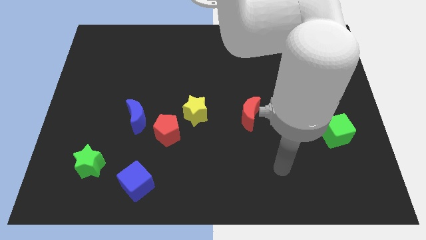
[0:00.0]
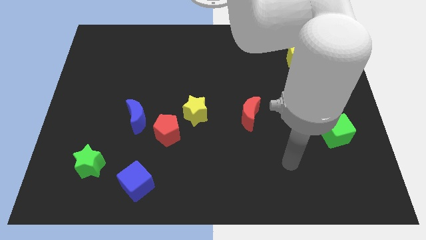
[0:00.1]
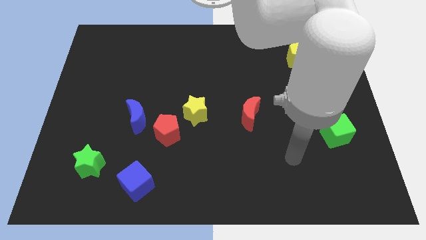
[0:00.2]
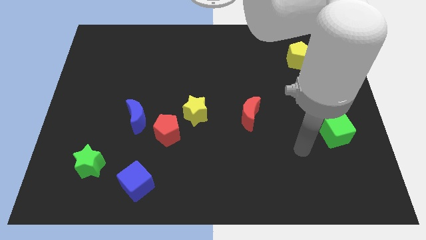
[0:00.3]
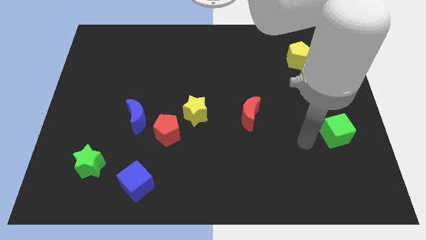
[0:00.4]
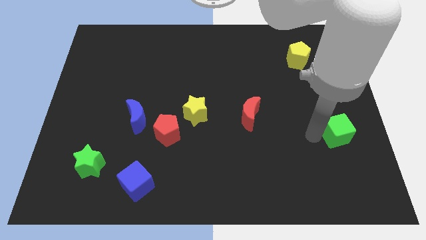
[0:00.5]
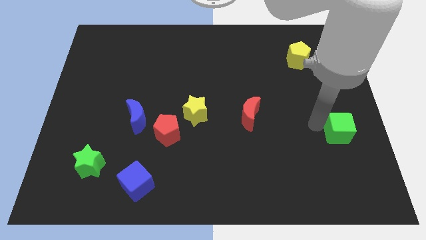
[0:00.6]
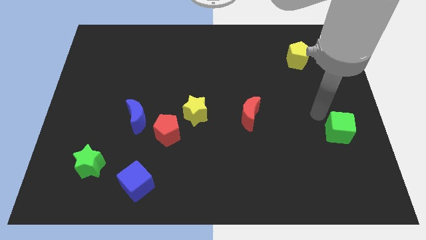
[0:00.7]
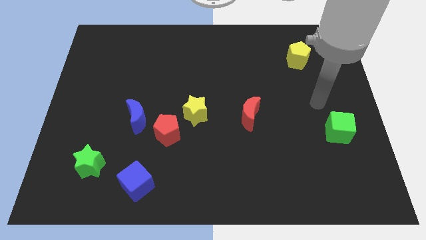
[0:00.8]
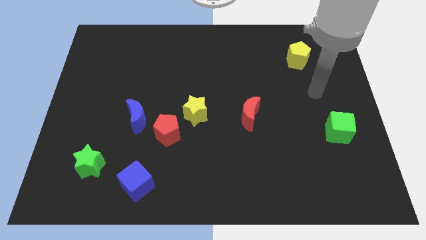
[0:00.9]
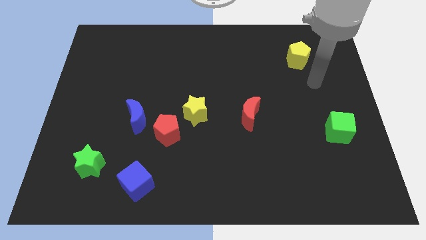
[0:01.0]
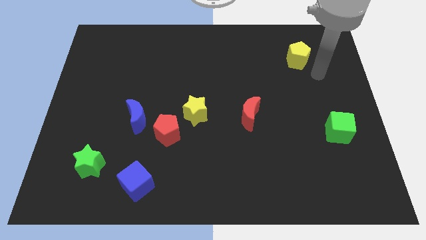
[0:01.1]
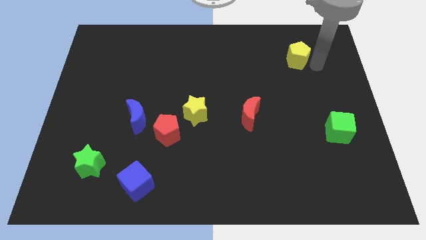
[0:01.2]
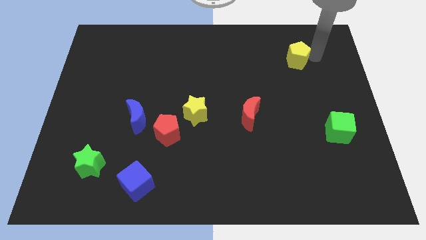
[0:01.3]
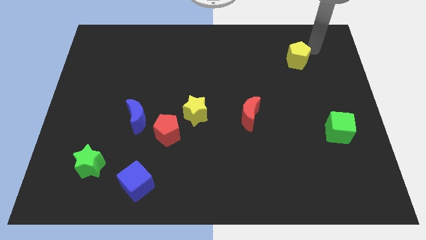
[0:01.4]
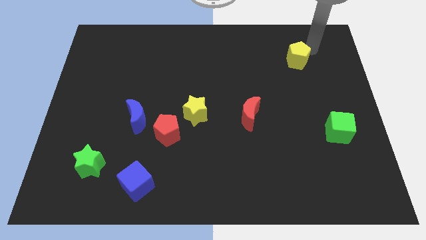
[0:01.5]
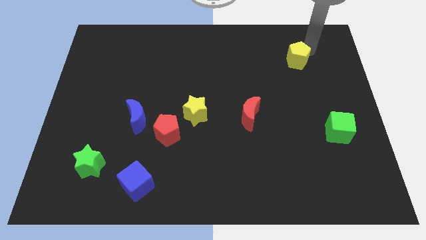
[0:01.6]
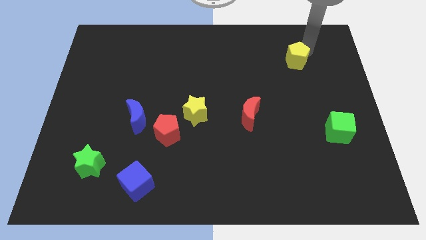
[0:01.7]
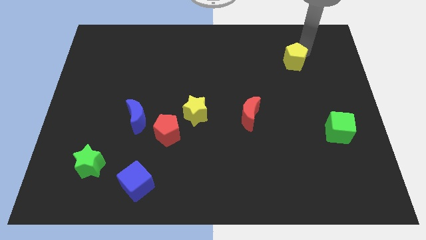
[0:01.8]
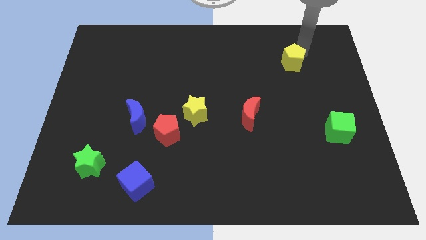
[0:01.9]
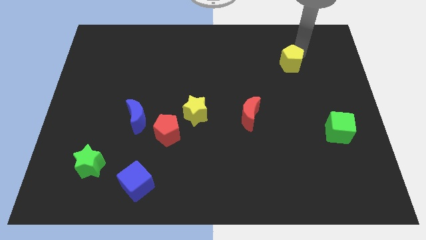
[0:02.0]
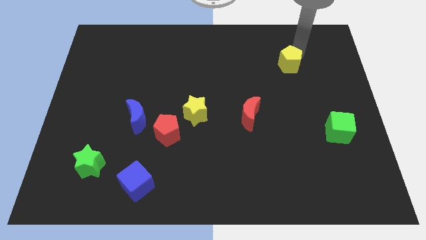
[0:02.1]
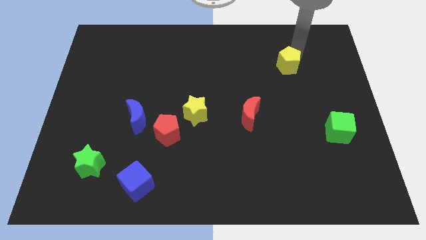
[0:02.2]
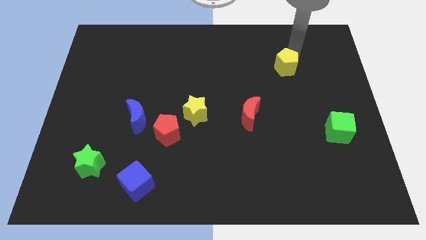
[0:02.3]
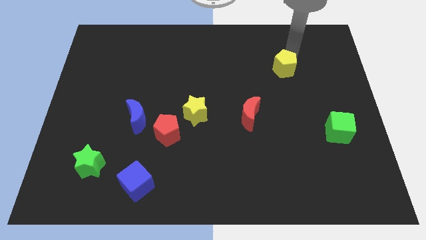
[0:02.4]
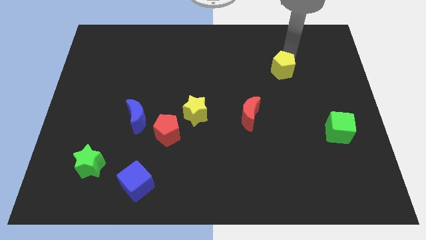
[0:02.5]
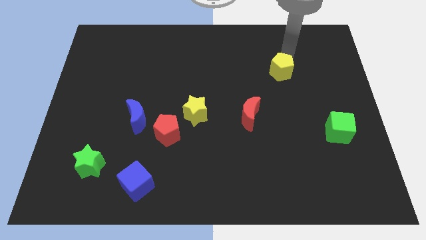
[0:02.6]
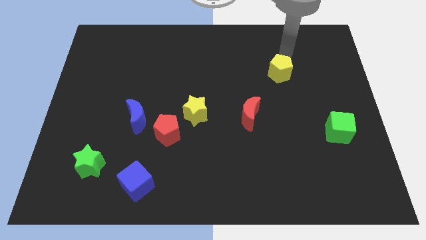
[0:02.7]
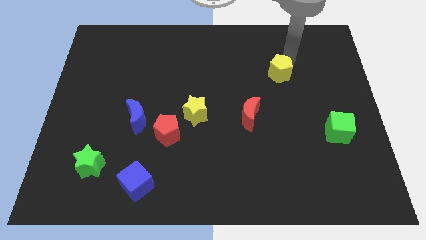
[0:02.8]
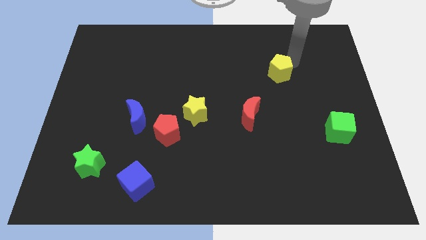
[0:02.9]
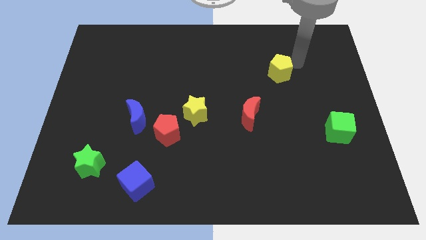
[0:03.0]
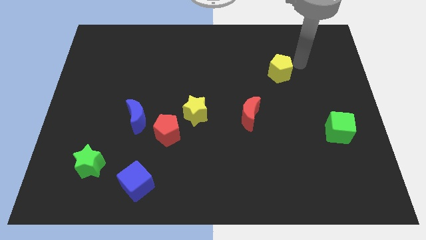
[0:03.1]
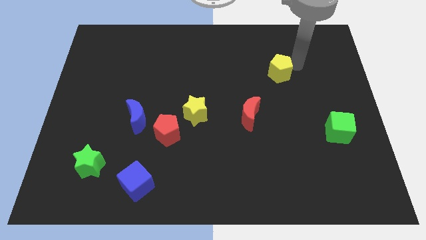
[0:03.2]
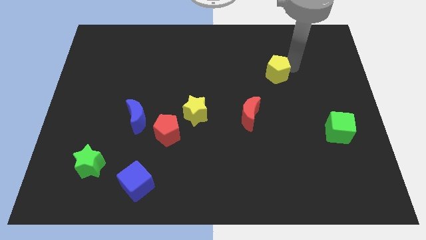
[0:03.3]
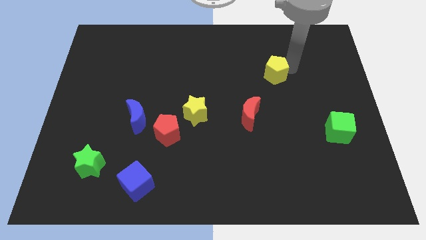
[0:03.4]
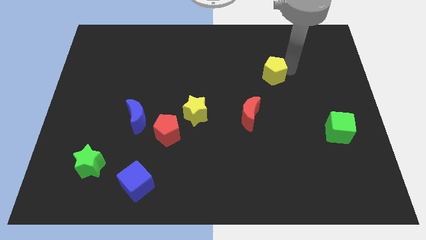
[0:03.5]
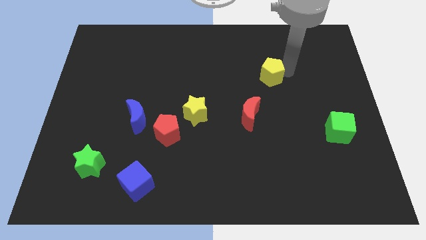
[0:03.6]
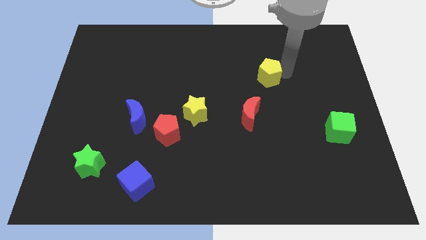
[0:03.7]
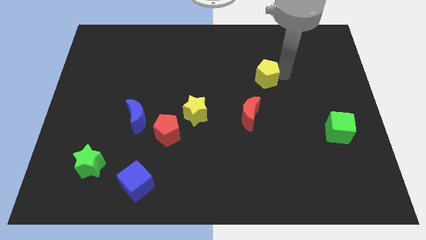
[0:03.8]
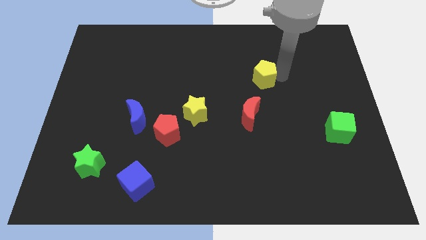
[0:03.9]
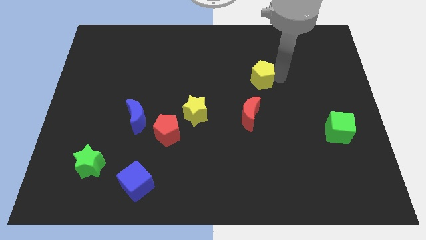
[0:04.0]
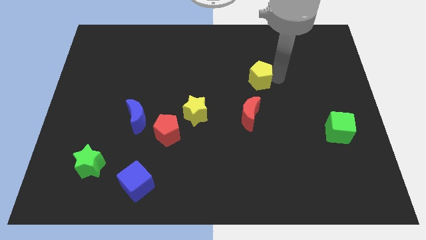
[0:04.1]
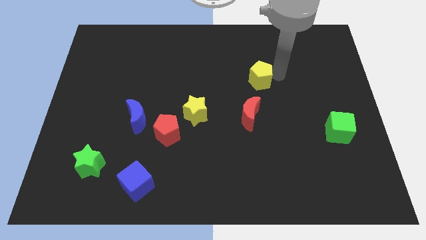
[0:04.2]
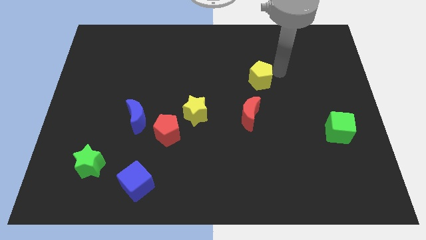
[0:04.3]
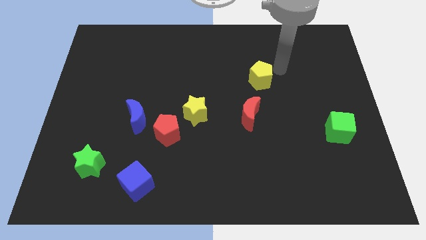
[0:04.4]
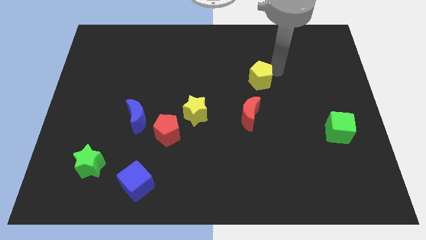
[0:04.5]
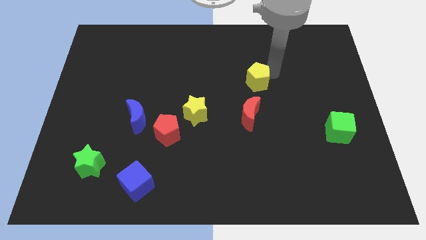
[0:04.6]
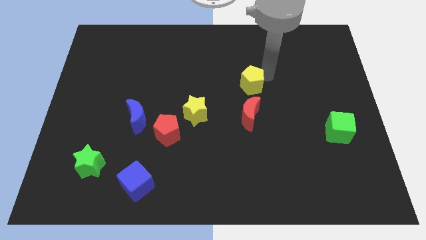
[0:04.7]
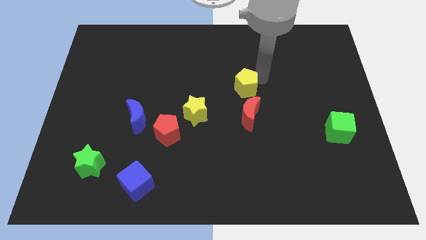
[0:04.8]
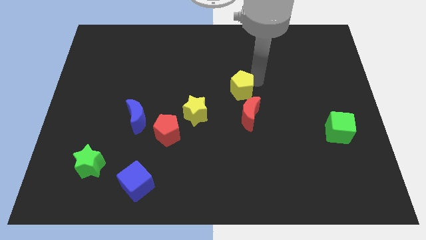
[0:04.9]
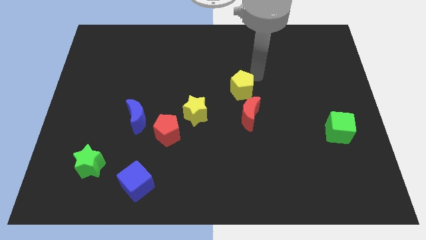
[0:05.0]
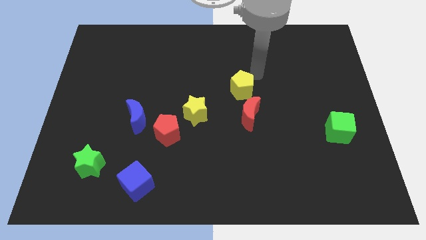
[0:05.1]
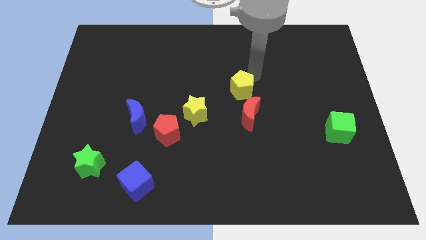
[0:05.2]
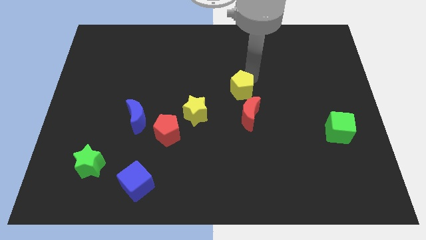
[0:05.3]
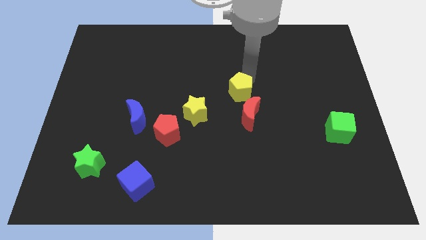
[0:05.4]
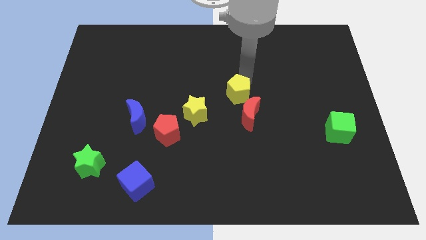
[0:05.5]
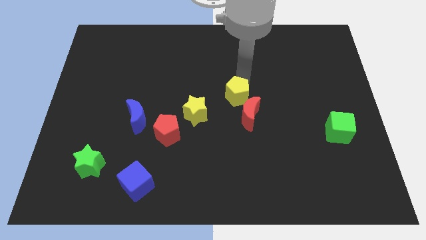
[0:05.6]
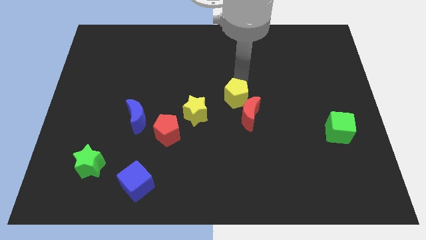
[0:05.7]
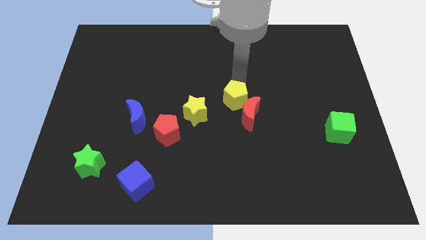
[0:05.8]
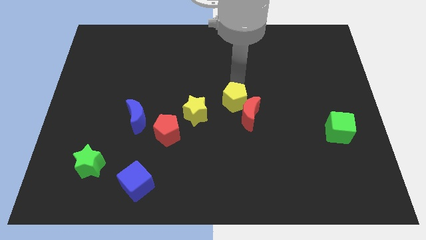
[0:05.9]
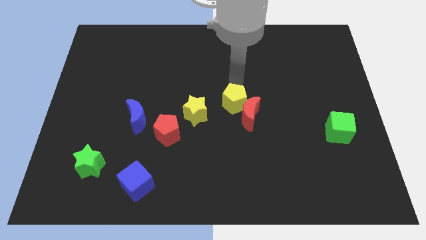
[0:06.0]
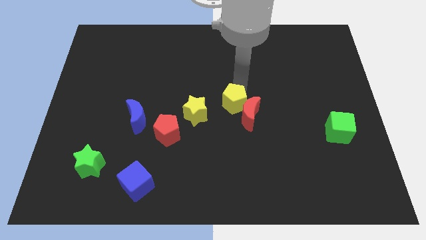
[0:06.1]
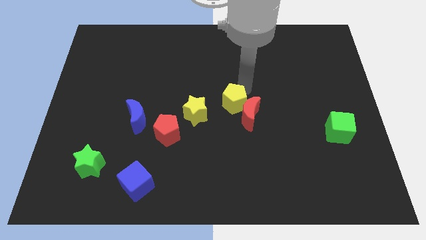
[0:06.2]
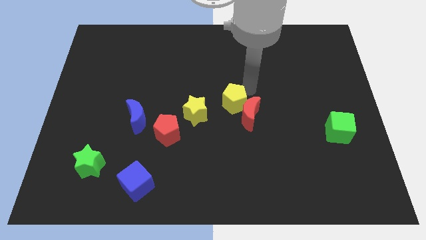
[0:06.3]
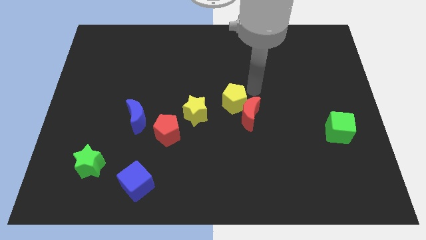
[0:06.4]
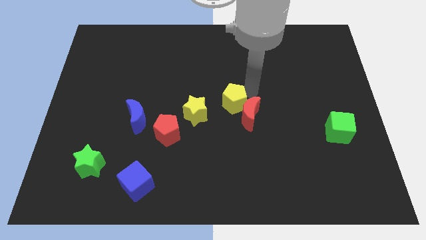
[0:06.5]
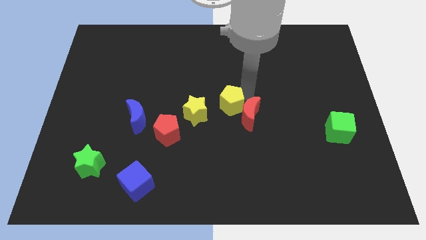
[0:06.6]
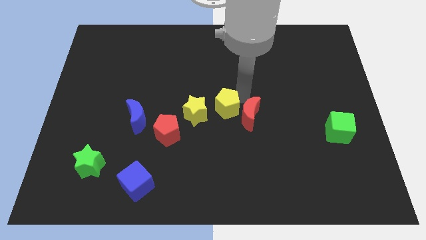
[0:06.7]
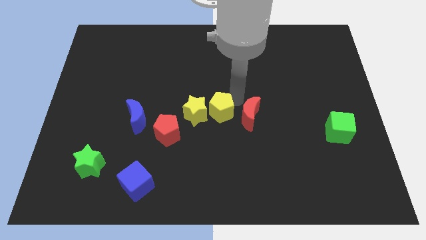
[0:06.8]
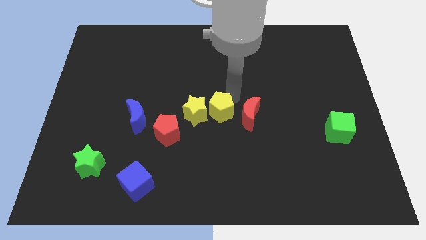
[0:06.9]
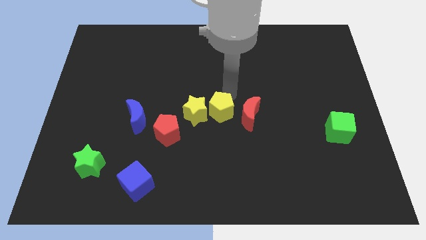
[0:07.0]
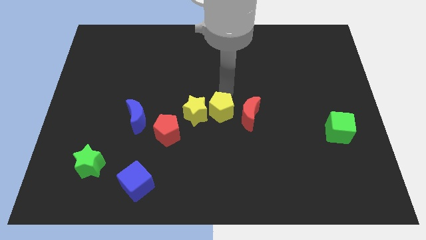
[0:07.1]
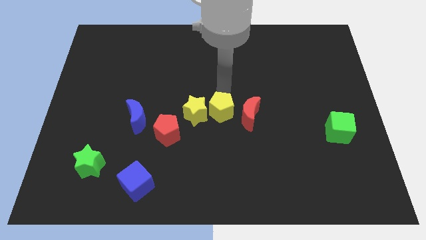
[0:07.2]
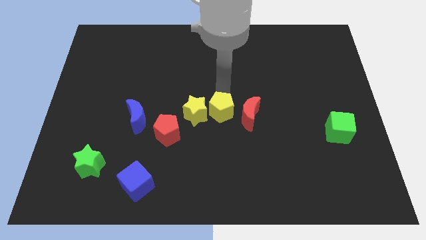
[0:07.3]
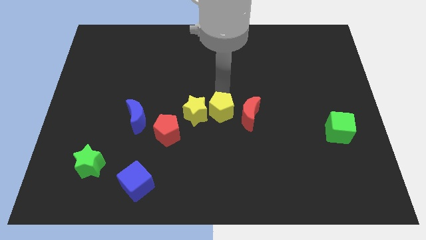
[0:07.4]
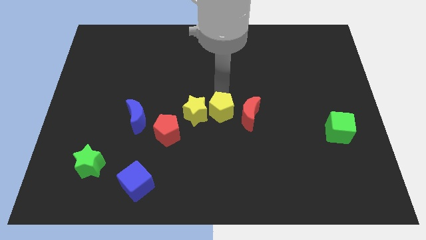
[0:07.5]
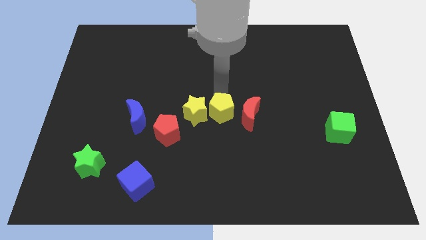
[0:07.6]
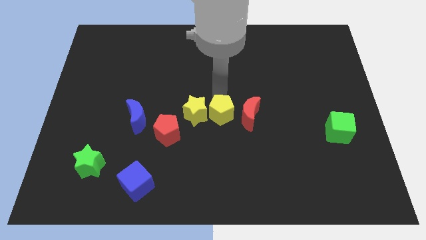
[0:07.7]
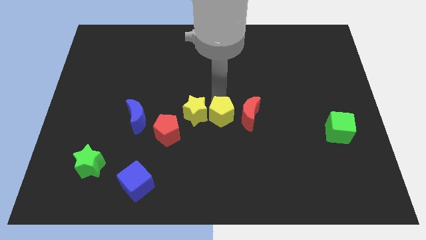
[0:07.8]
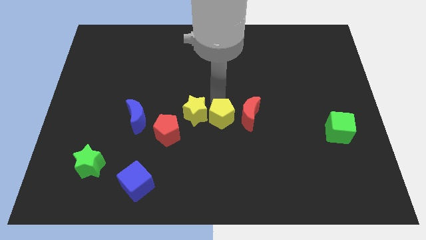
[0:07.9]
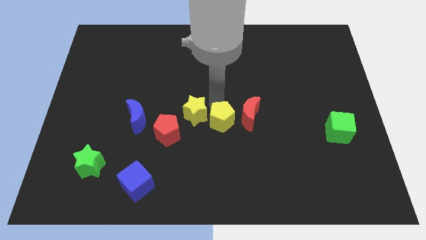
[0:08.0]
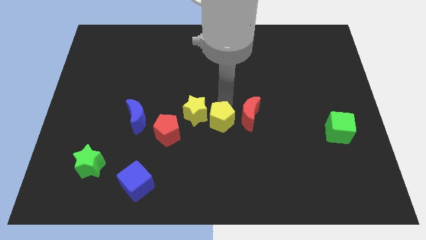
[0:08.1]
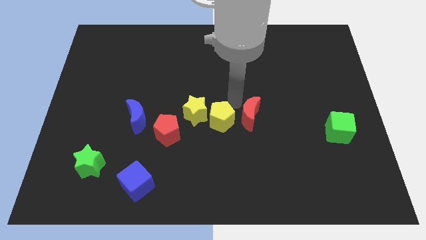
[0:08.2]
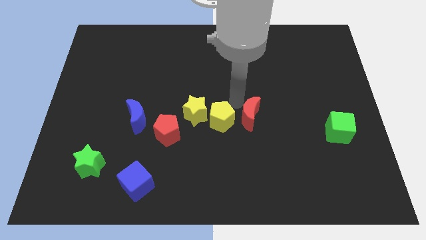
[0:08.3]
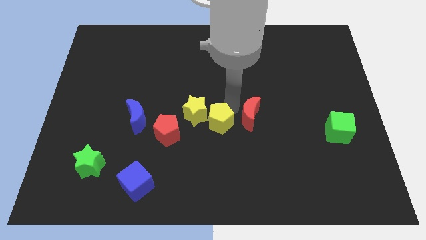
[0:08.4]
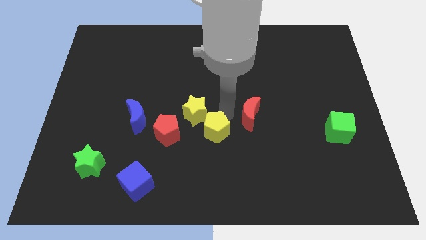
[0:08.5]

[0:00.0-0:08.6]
push the yellow pentagon to the bottom side of the yellow star
